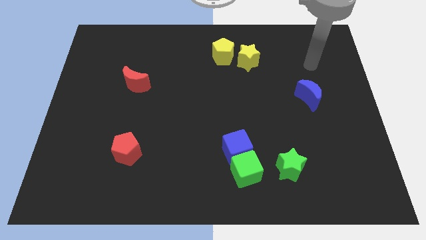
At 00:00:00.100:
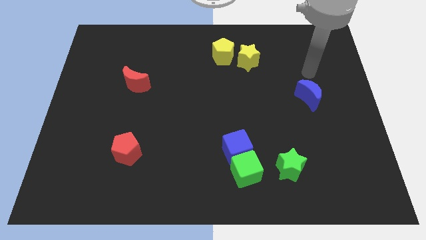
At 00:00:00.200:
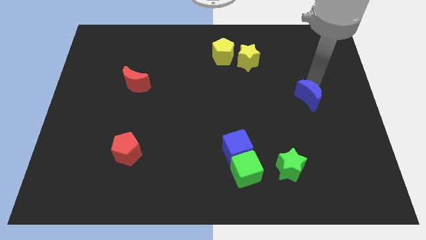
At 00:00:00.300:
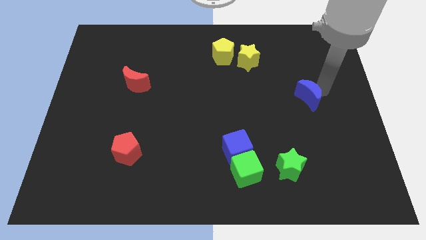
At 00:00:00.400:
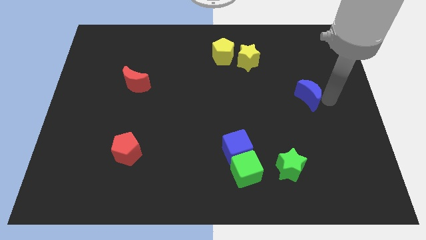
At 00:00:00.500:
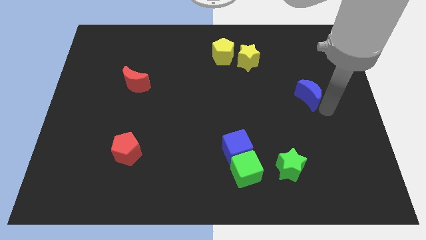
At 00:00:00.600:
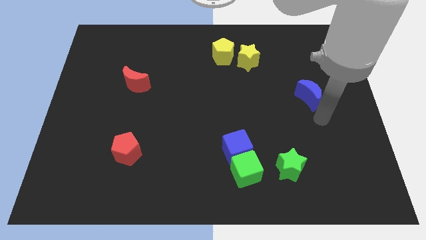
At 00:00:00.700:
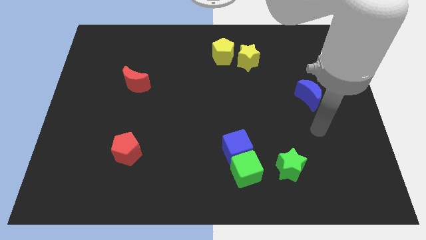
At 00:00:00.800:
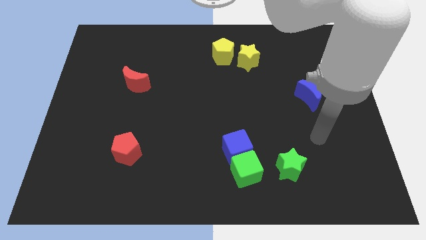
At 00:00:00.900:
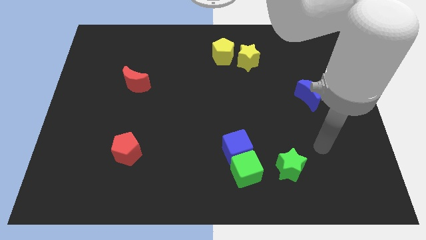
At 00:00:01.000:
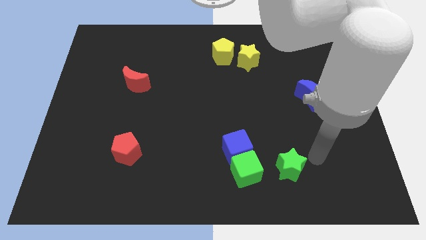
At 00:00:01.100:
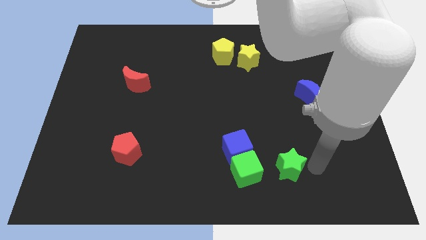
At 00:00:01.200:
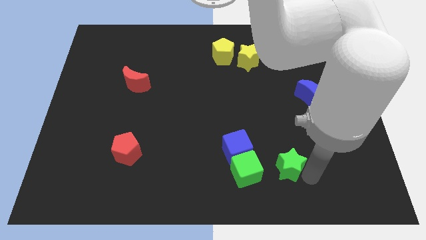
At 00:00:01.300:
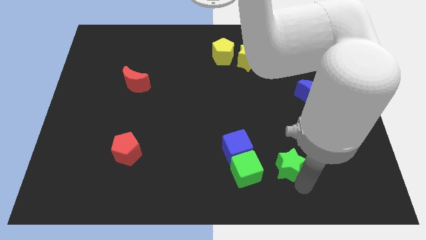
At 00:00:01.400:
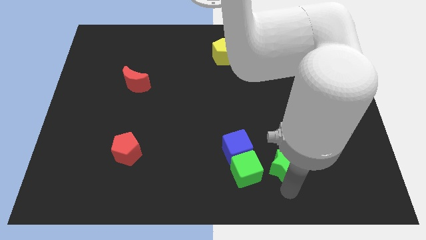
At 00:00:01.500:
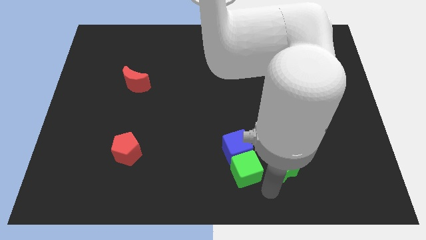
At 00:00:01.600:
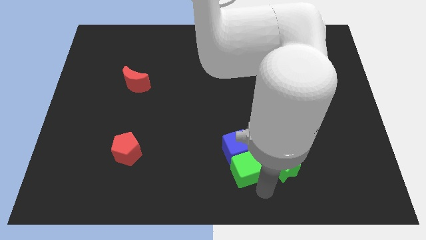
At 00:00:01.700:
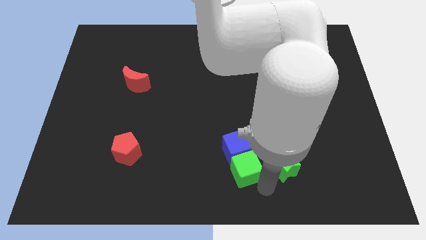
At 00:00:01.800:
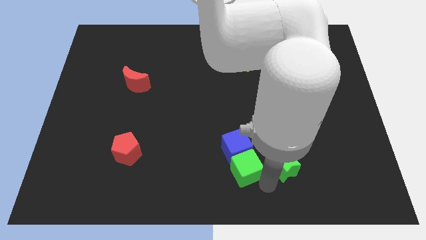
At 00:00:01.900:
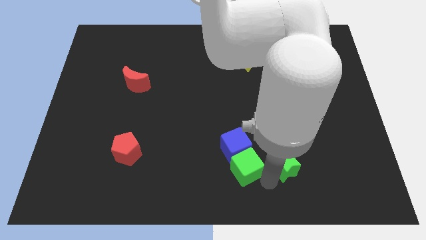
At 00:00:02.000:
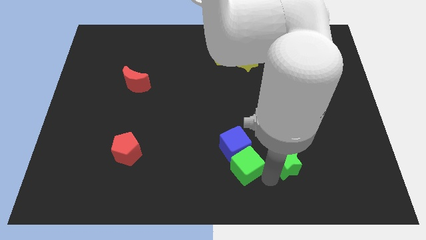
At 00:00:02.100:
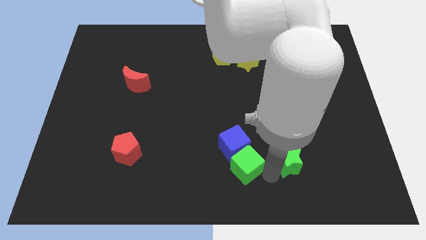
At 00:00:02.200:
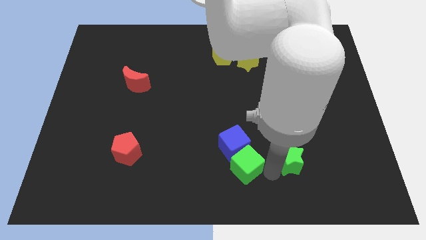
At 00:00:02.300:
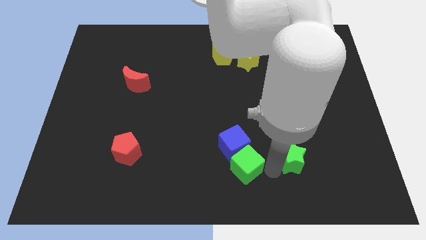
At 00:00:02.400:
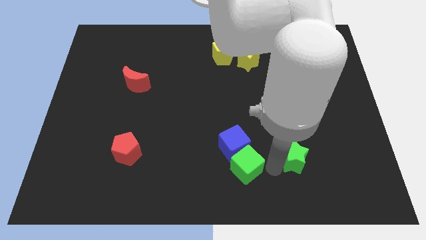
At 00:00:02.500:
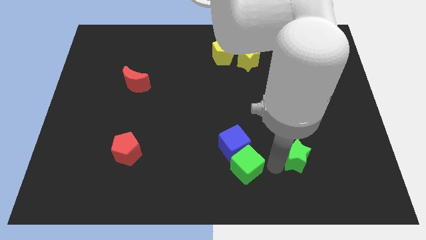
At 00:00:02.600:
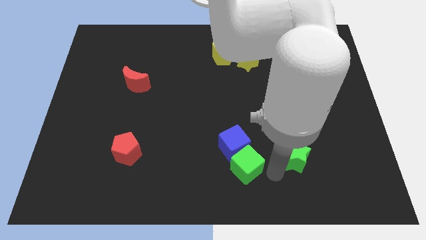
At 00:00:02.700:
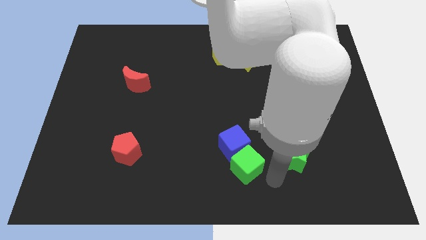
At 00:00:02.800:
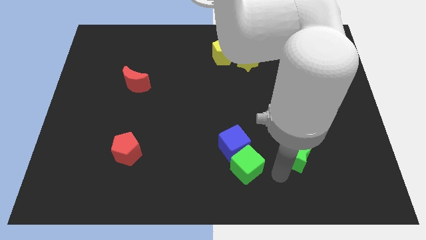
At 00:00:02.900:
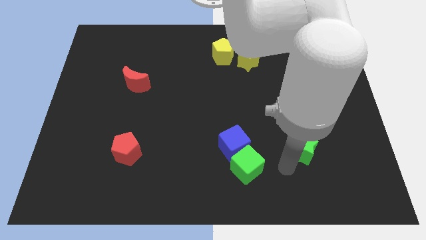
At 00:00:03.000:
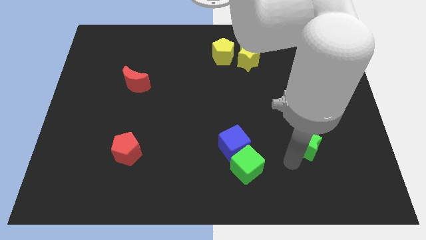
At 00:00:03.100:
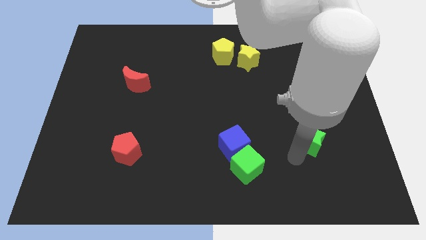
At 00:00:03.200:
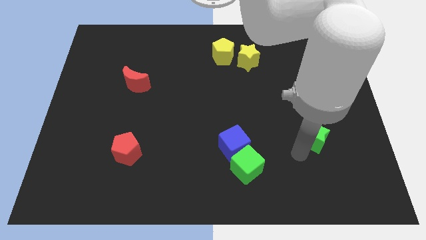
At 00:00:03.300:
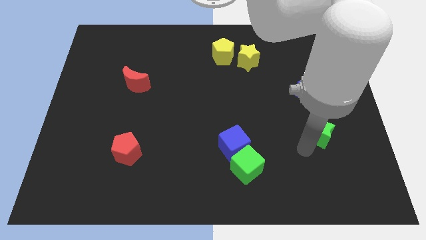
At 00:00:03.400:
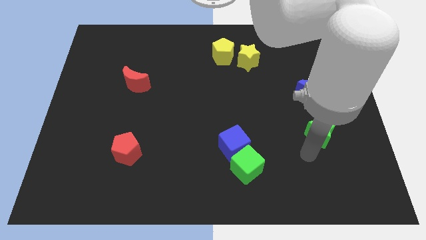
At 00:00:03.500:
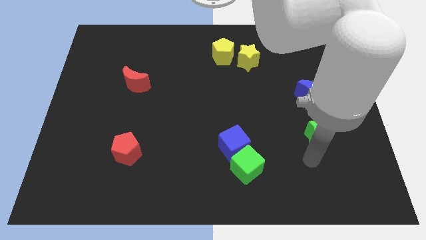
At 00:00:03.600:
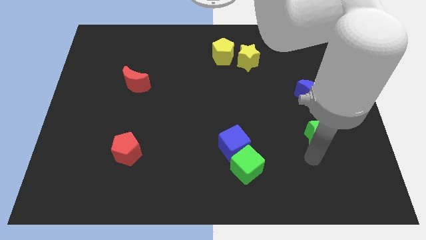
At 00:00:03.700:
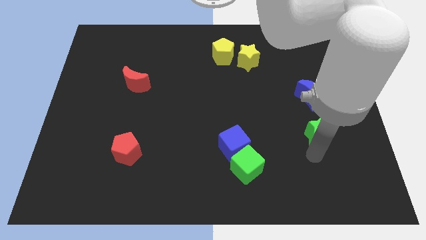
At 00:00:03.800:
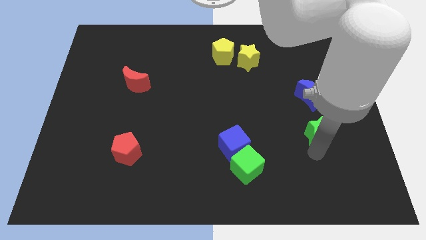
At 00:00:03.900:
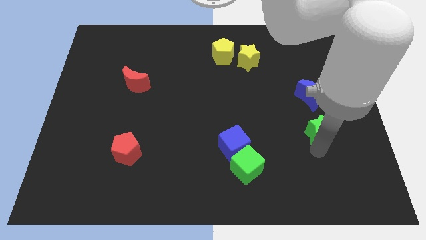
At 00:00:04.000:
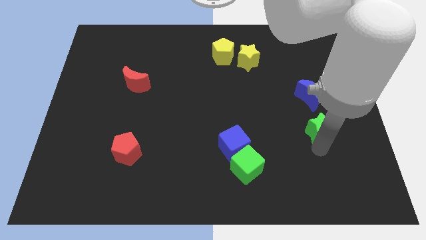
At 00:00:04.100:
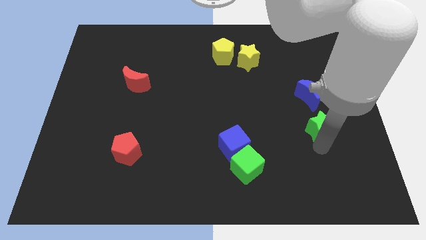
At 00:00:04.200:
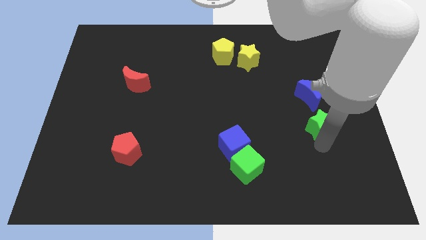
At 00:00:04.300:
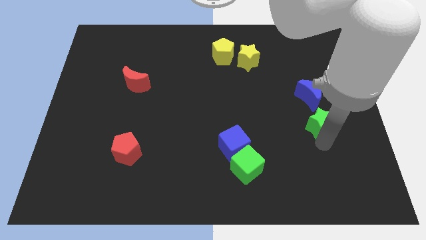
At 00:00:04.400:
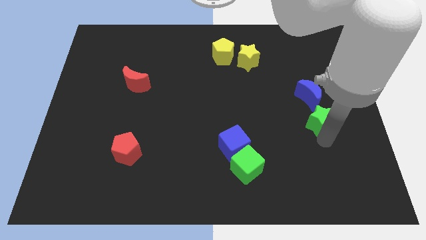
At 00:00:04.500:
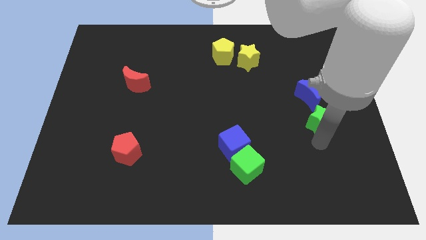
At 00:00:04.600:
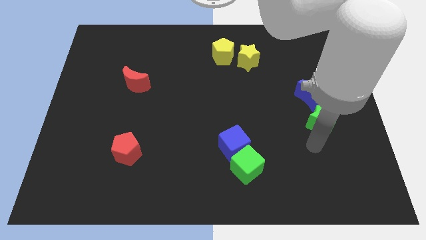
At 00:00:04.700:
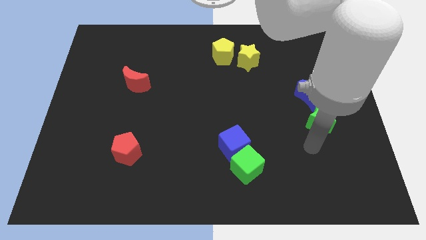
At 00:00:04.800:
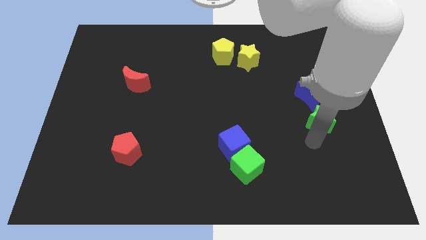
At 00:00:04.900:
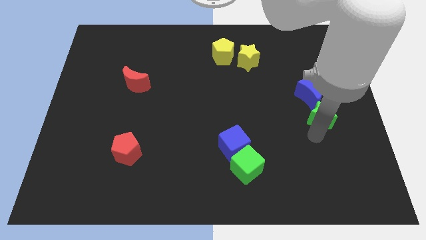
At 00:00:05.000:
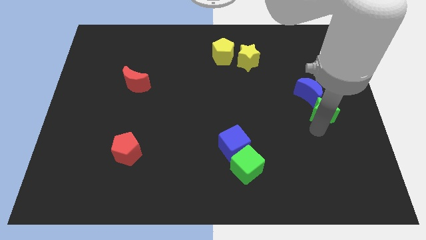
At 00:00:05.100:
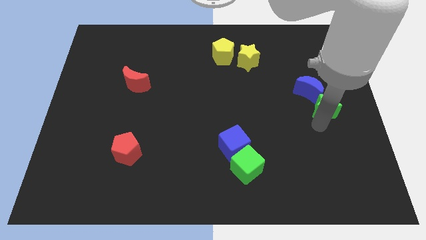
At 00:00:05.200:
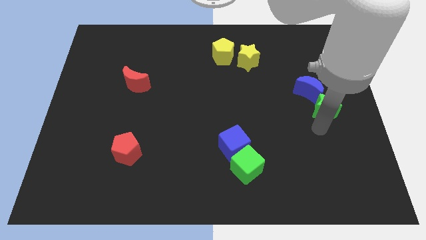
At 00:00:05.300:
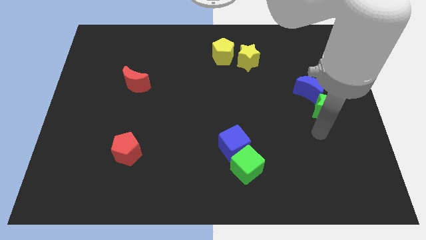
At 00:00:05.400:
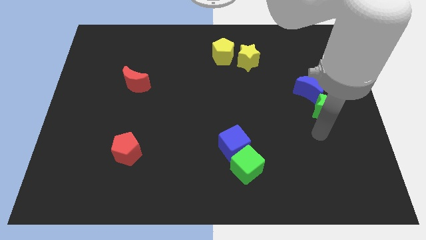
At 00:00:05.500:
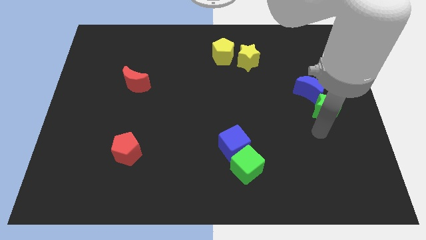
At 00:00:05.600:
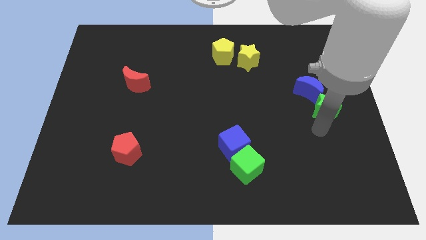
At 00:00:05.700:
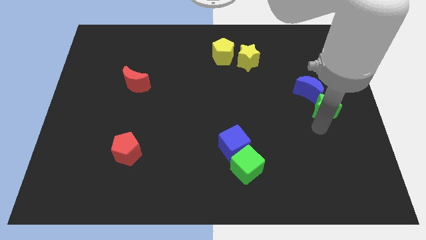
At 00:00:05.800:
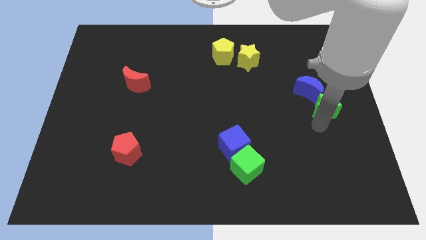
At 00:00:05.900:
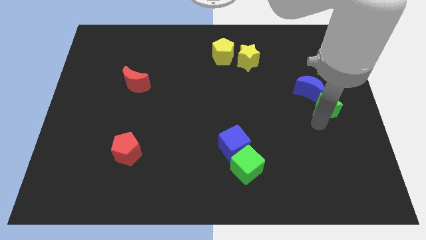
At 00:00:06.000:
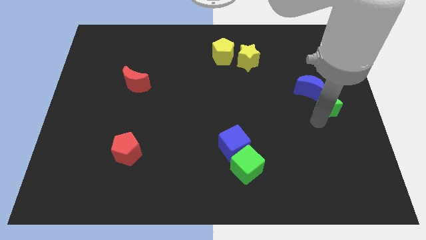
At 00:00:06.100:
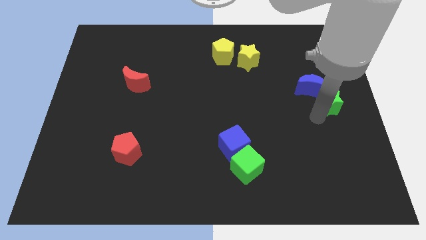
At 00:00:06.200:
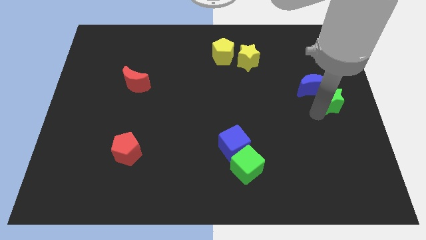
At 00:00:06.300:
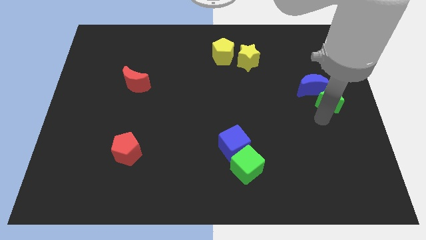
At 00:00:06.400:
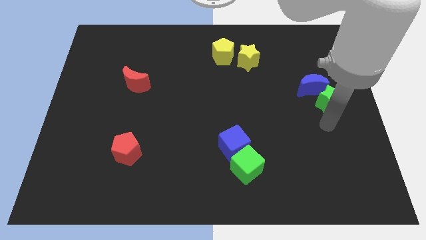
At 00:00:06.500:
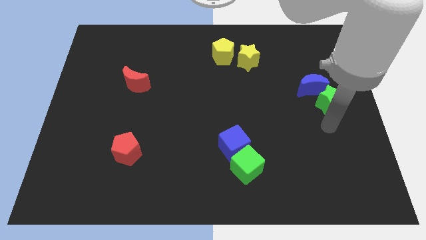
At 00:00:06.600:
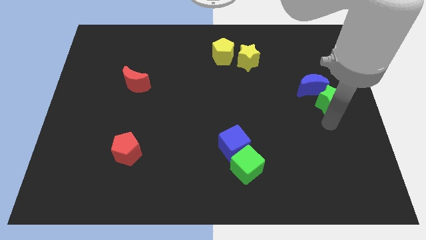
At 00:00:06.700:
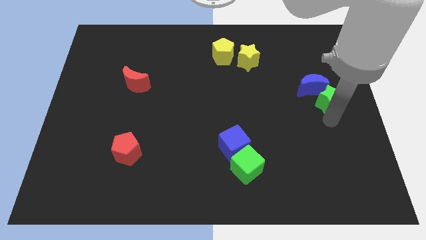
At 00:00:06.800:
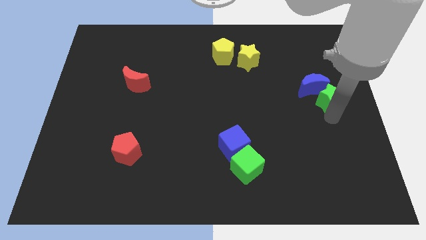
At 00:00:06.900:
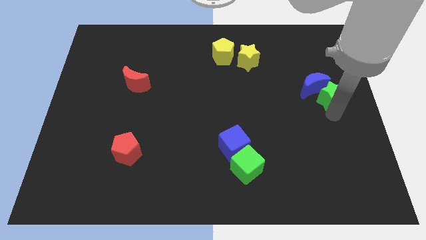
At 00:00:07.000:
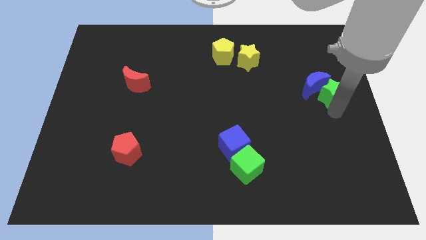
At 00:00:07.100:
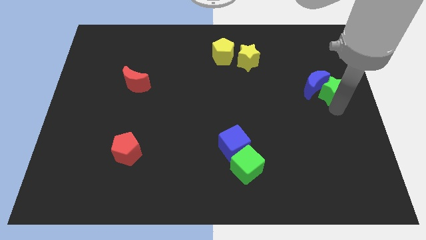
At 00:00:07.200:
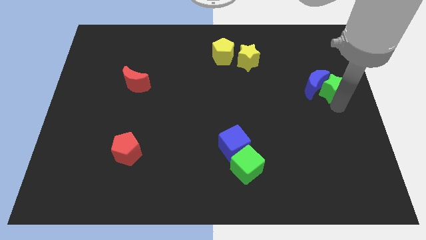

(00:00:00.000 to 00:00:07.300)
put the green star to the top right of the blue moon

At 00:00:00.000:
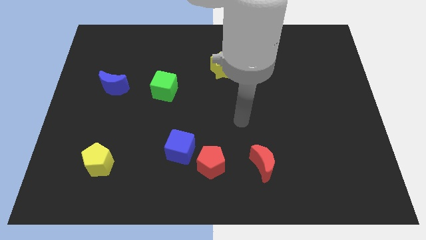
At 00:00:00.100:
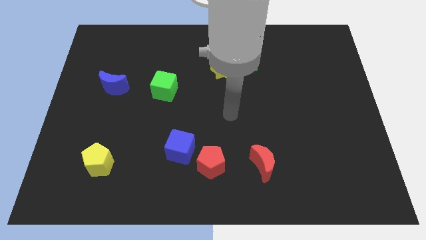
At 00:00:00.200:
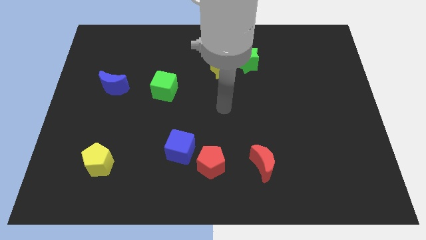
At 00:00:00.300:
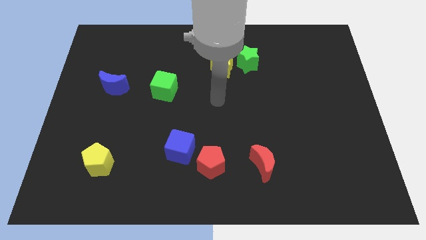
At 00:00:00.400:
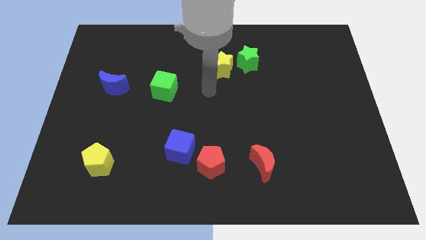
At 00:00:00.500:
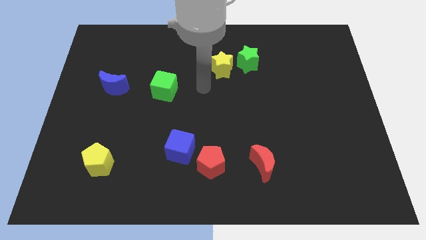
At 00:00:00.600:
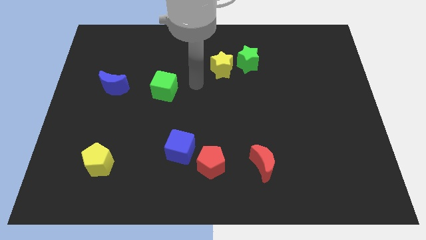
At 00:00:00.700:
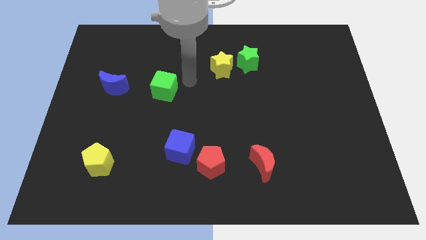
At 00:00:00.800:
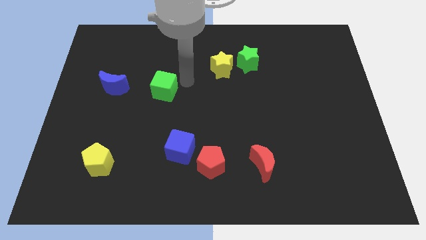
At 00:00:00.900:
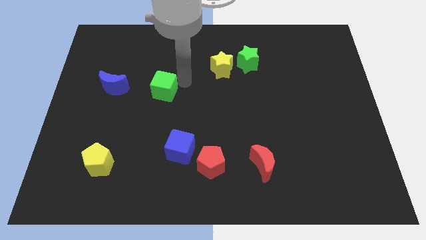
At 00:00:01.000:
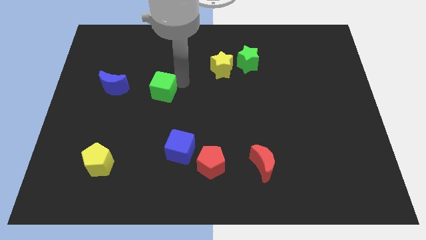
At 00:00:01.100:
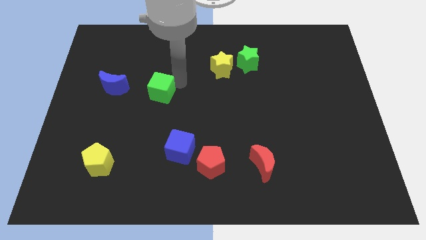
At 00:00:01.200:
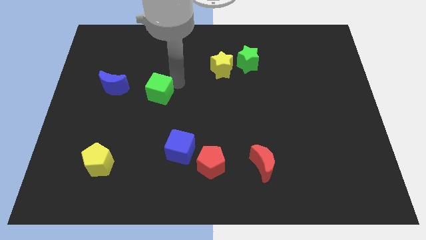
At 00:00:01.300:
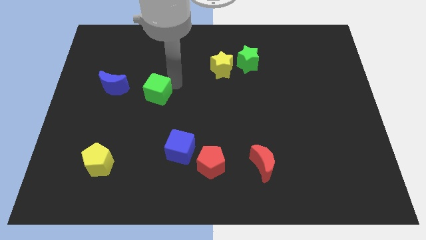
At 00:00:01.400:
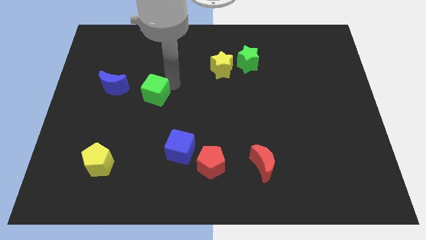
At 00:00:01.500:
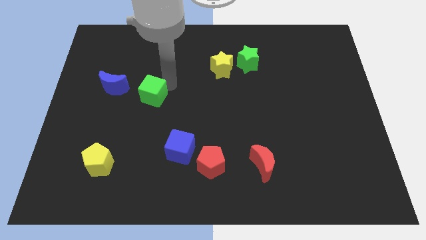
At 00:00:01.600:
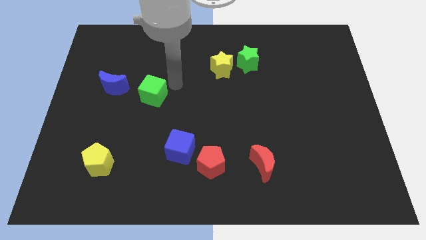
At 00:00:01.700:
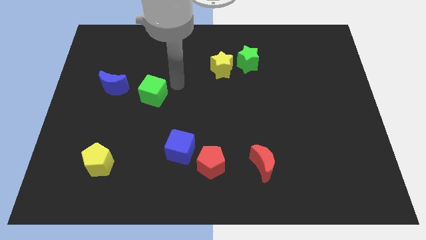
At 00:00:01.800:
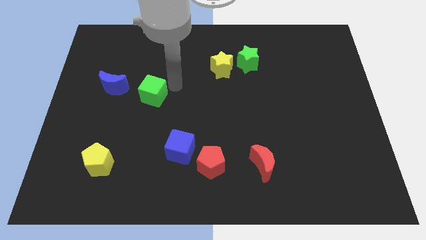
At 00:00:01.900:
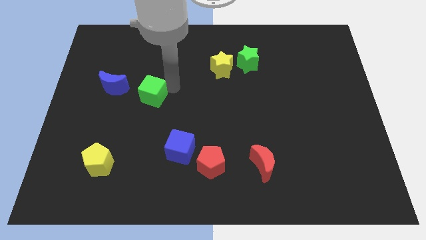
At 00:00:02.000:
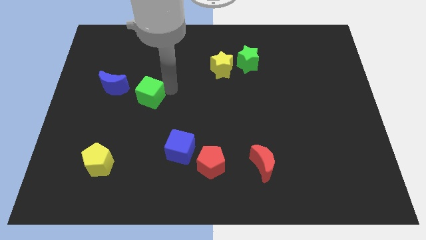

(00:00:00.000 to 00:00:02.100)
put the green cube diagonally down and to the right of the blue moon
